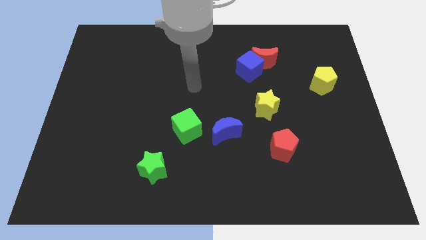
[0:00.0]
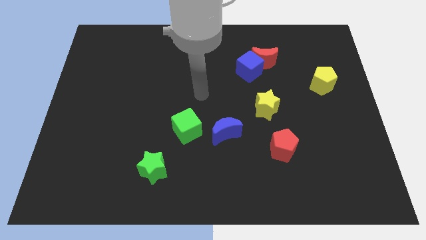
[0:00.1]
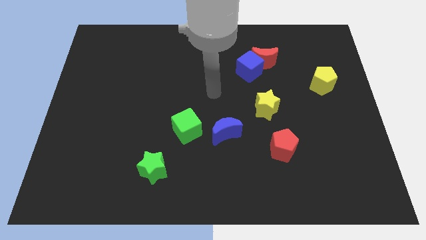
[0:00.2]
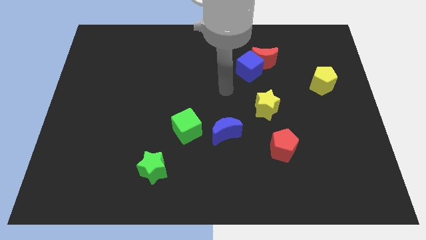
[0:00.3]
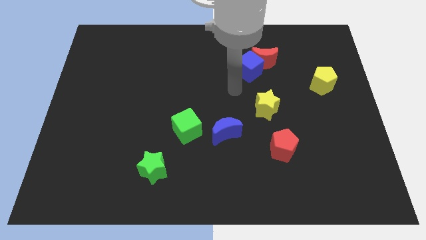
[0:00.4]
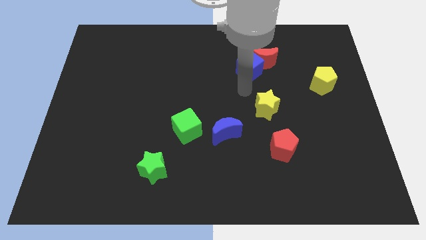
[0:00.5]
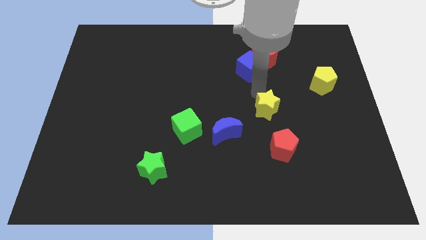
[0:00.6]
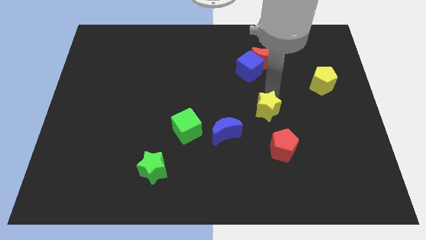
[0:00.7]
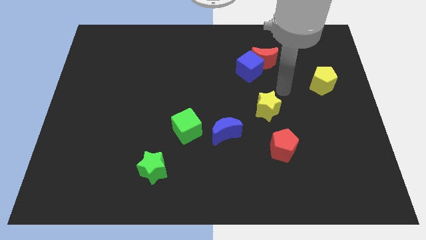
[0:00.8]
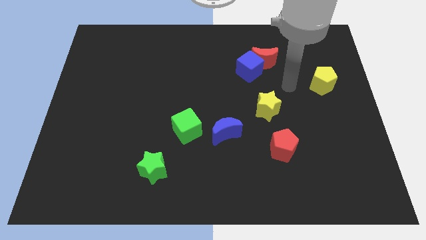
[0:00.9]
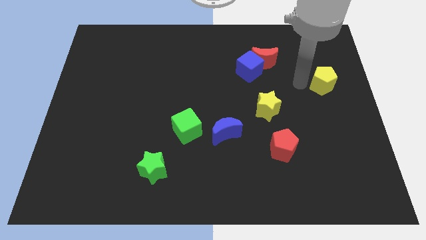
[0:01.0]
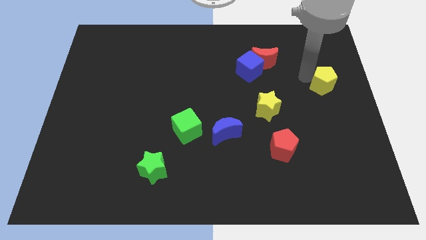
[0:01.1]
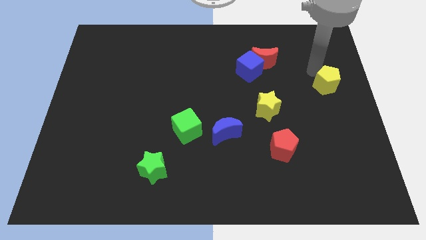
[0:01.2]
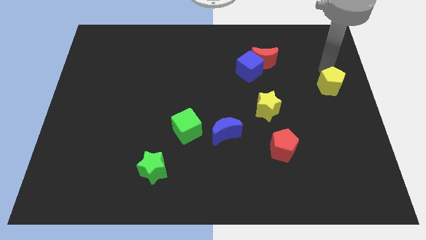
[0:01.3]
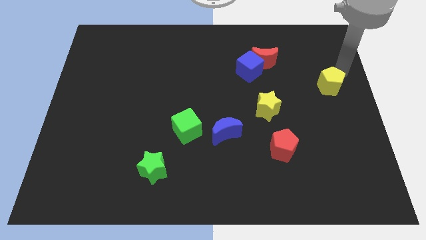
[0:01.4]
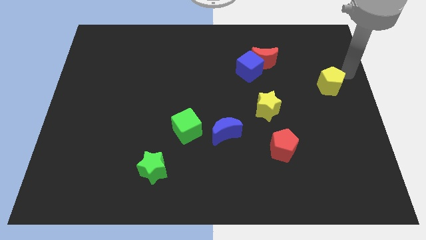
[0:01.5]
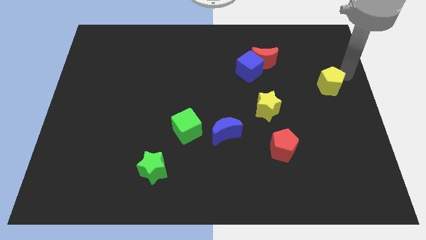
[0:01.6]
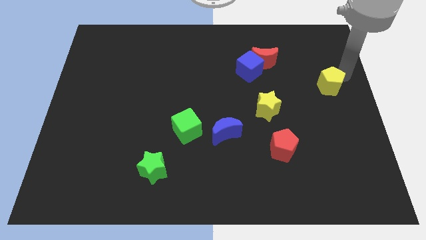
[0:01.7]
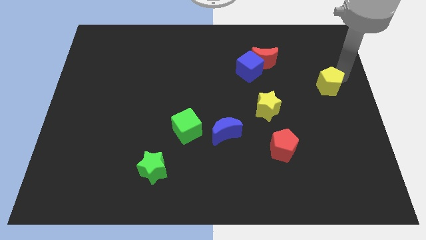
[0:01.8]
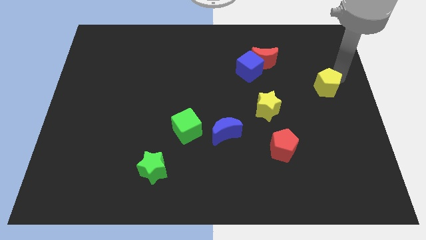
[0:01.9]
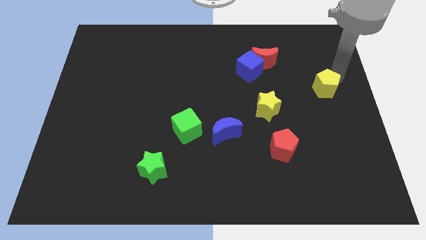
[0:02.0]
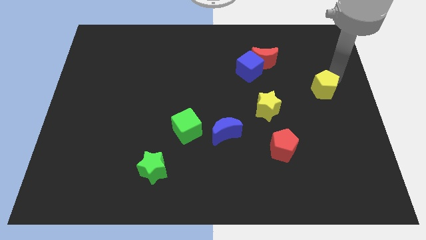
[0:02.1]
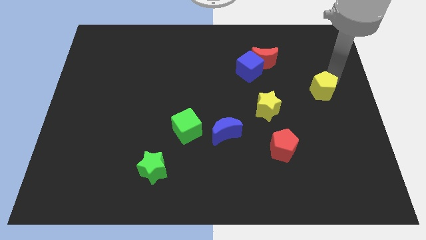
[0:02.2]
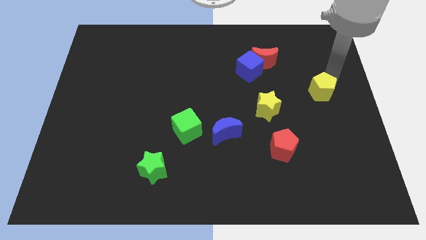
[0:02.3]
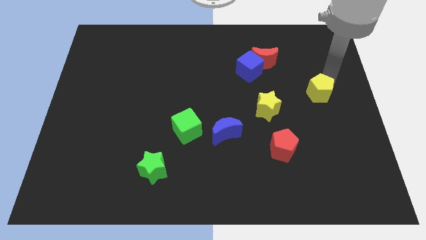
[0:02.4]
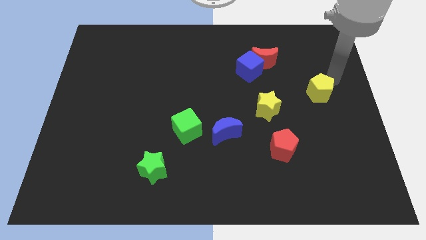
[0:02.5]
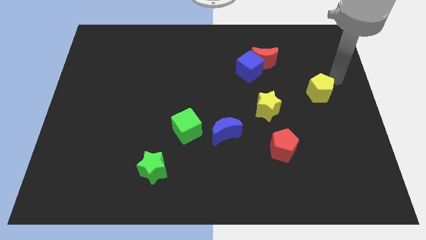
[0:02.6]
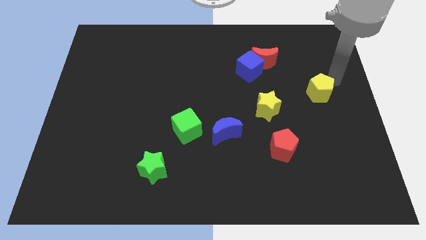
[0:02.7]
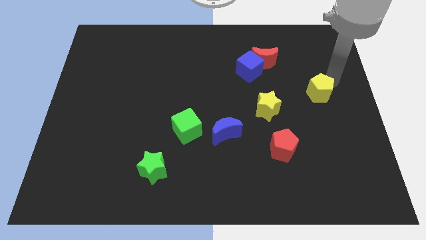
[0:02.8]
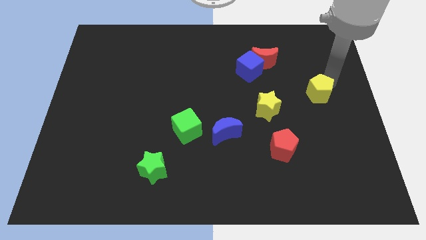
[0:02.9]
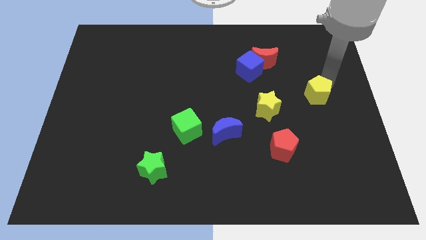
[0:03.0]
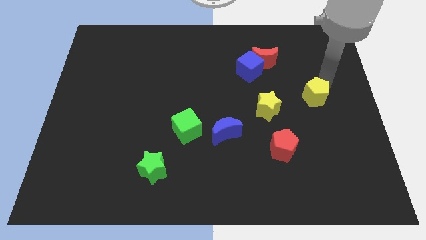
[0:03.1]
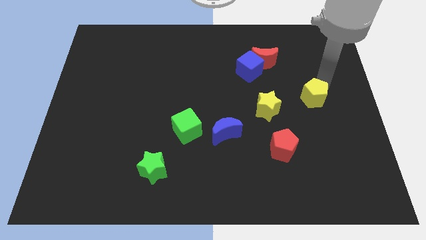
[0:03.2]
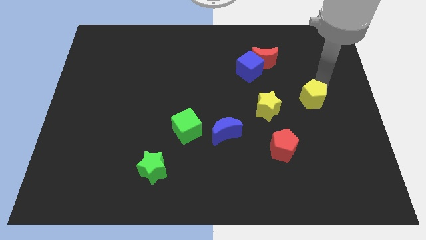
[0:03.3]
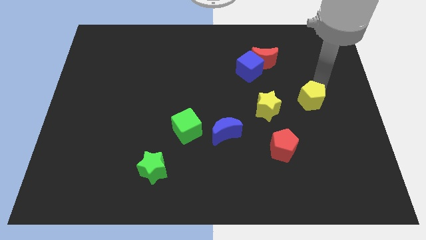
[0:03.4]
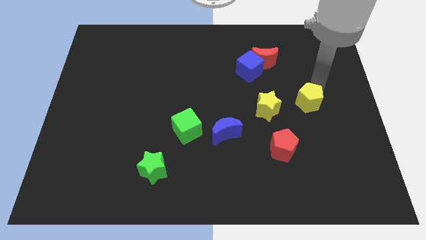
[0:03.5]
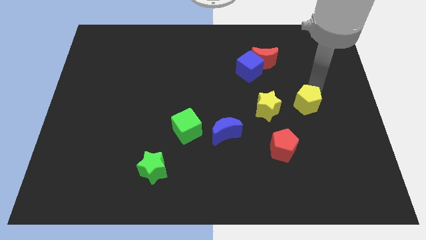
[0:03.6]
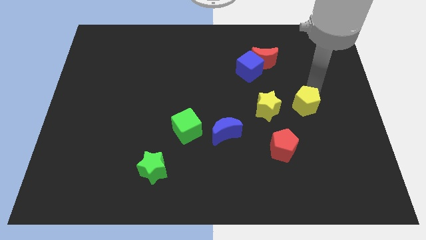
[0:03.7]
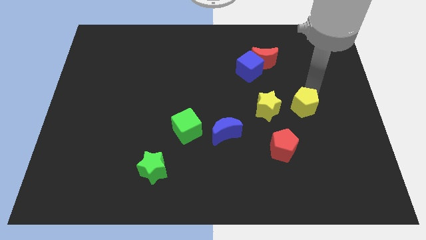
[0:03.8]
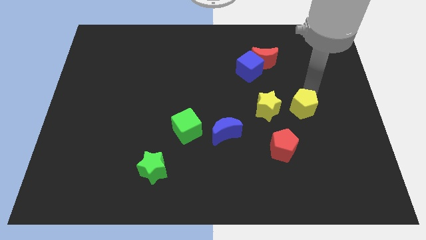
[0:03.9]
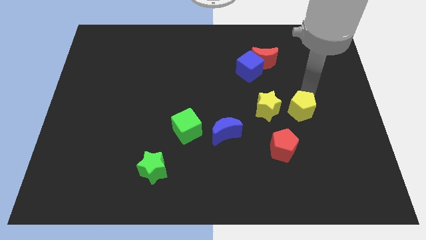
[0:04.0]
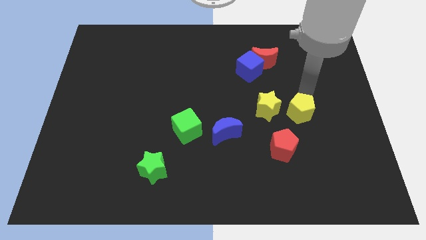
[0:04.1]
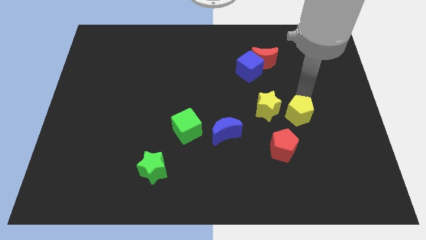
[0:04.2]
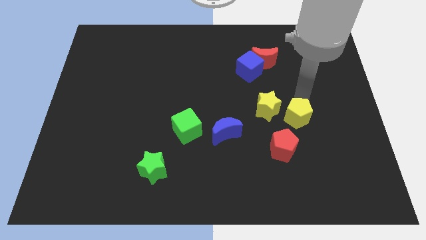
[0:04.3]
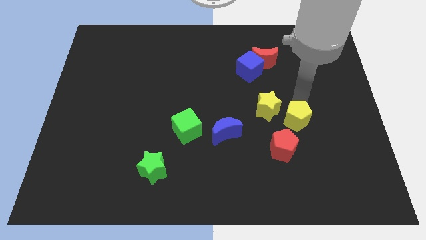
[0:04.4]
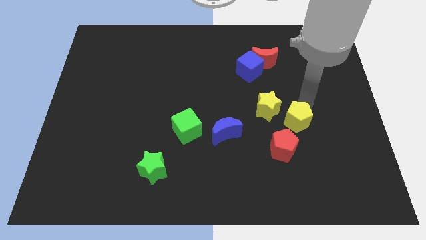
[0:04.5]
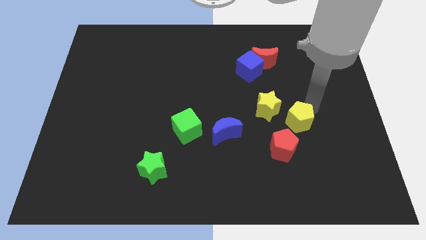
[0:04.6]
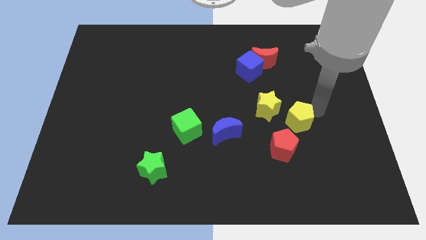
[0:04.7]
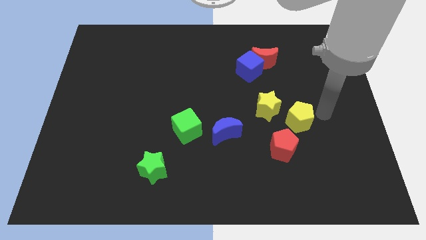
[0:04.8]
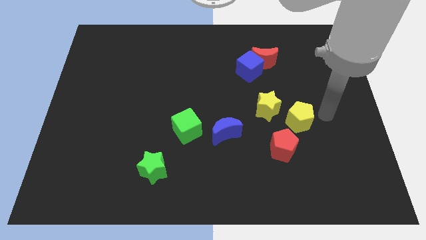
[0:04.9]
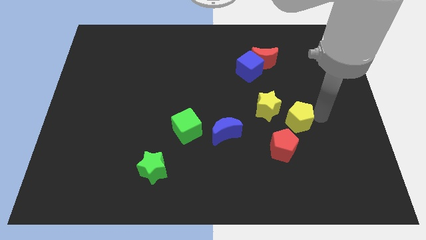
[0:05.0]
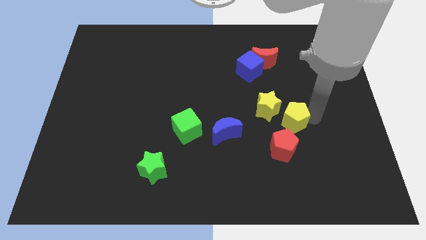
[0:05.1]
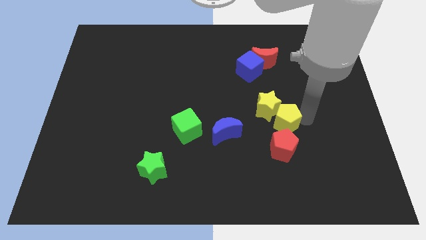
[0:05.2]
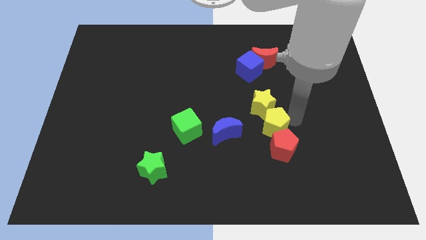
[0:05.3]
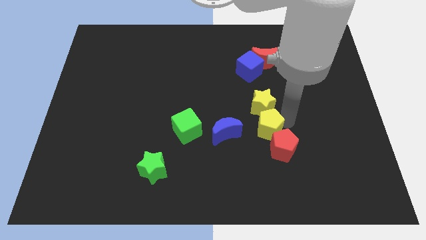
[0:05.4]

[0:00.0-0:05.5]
slide the yellow pentagon downwards and left

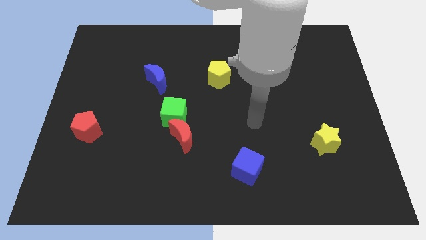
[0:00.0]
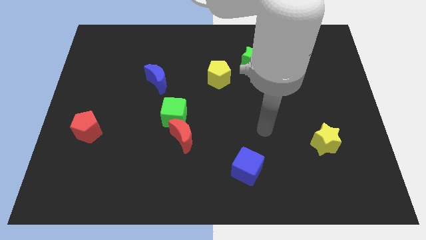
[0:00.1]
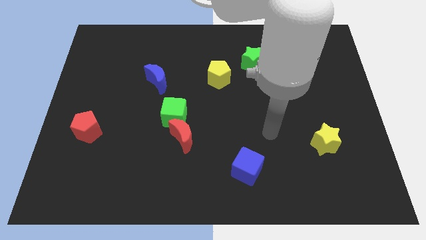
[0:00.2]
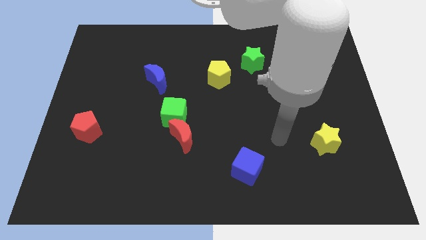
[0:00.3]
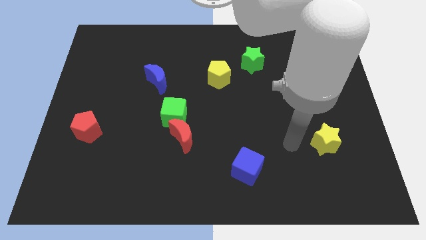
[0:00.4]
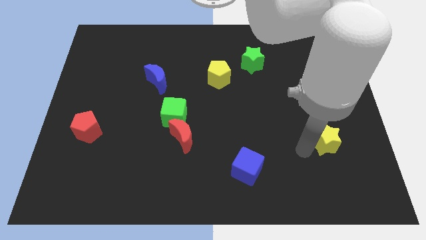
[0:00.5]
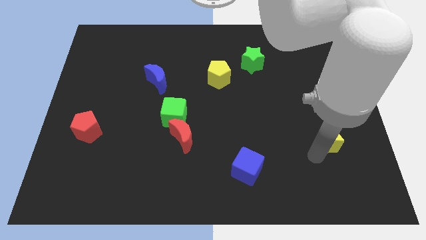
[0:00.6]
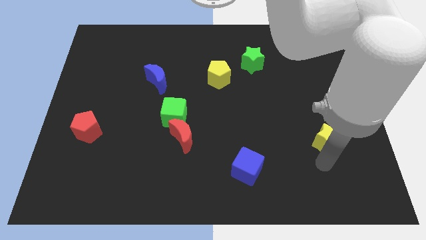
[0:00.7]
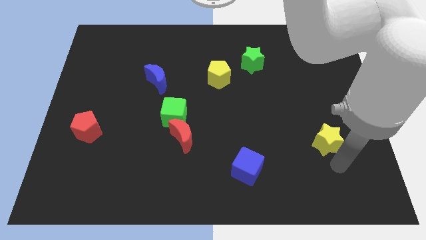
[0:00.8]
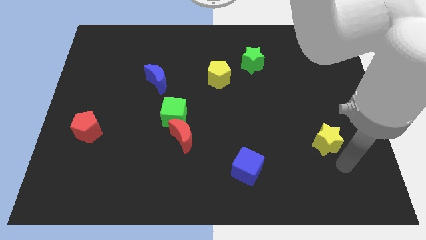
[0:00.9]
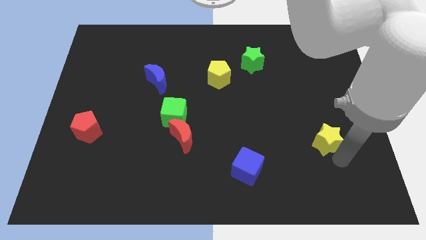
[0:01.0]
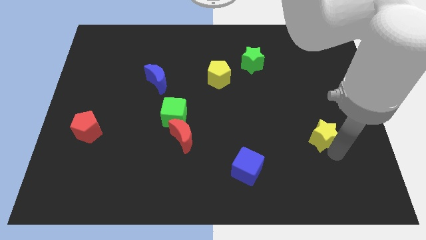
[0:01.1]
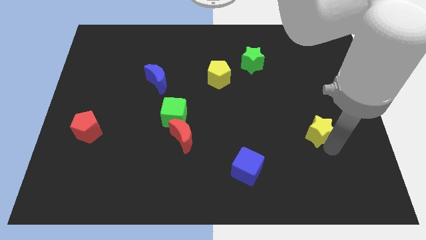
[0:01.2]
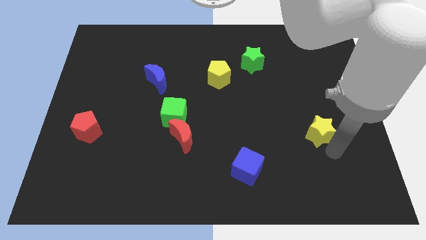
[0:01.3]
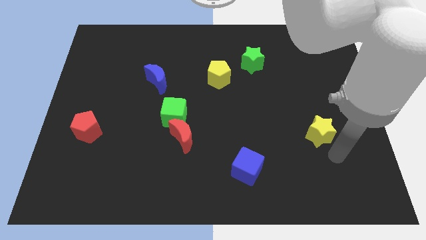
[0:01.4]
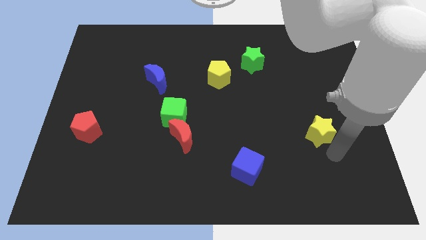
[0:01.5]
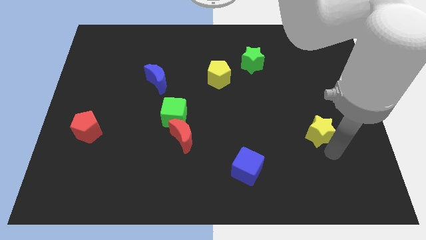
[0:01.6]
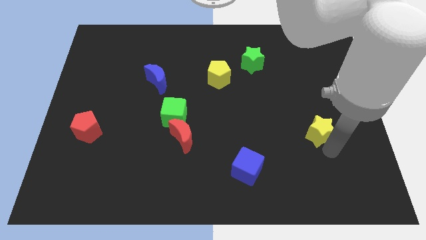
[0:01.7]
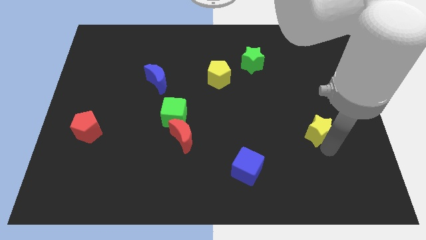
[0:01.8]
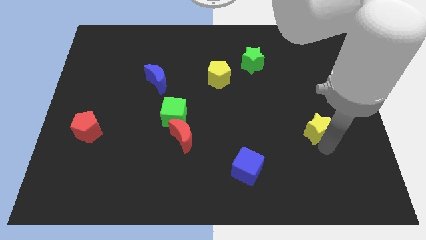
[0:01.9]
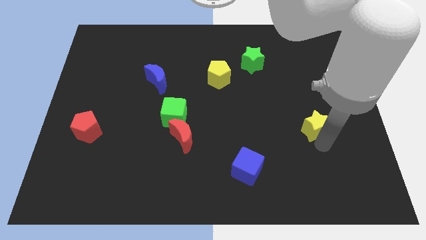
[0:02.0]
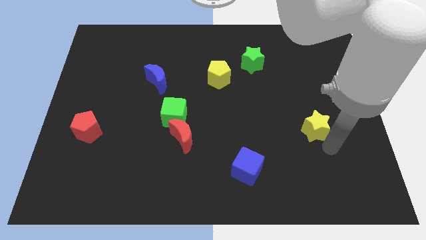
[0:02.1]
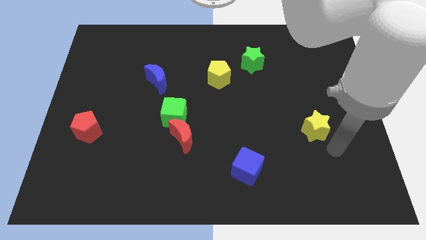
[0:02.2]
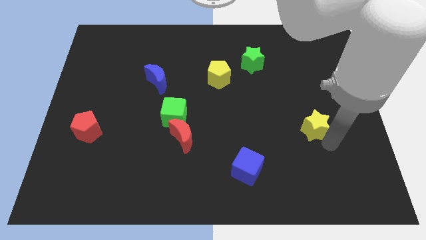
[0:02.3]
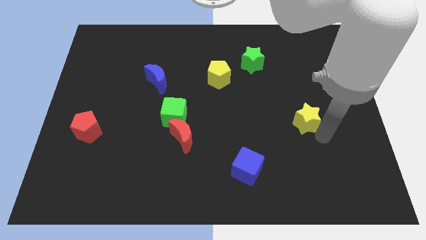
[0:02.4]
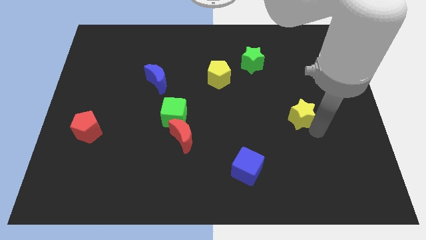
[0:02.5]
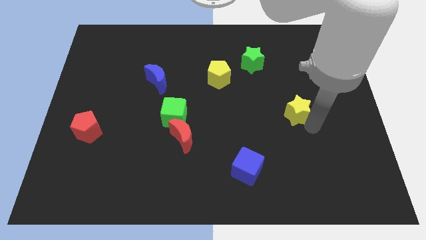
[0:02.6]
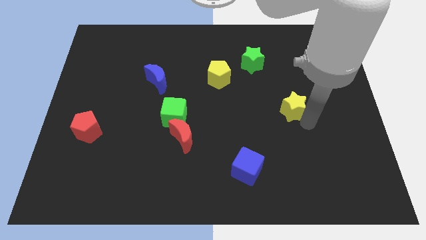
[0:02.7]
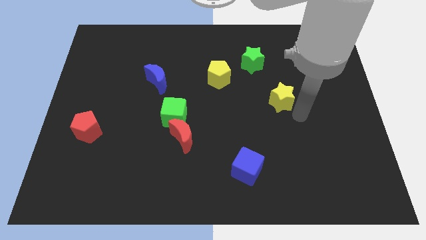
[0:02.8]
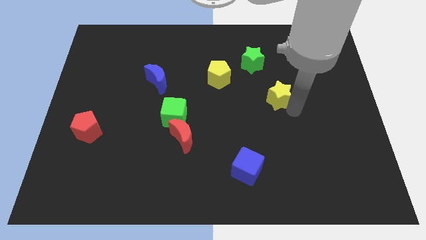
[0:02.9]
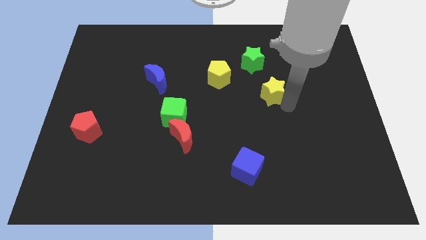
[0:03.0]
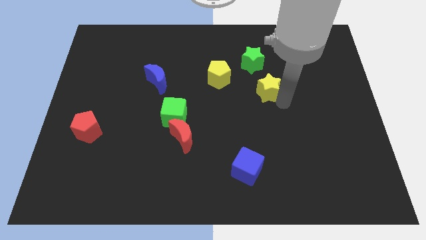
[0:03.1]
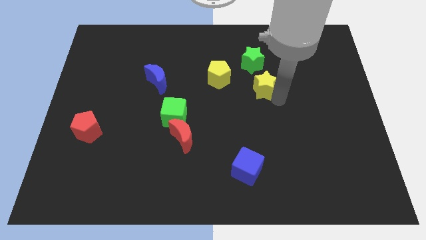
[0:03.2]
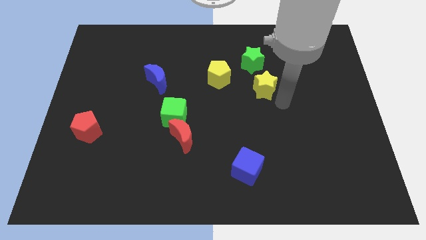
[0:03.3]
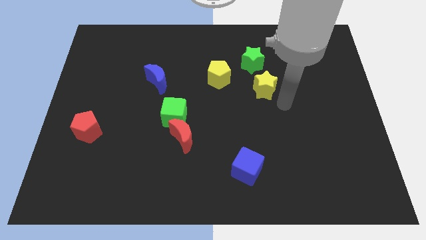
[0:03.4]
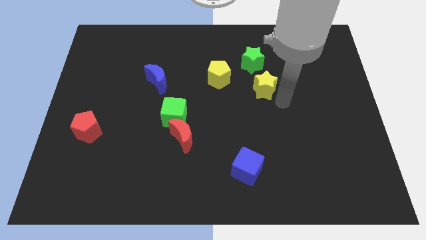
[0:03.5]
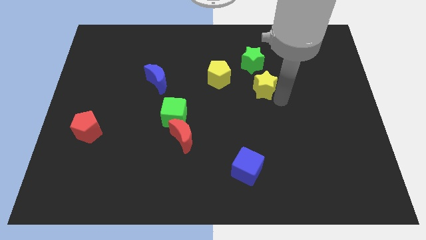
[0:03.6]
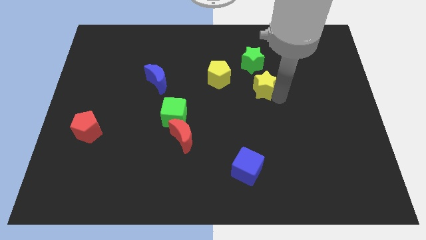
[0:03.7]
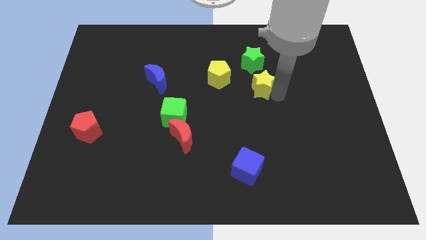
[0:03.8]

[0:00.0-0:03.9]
slide the yellow star up and left
